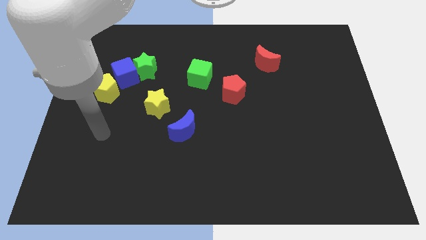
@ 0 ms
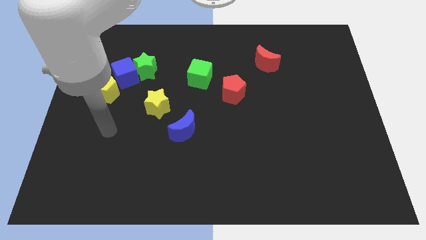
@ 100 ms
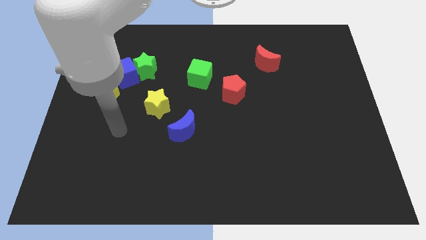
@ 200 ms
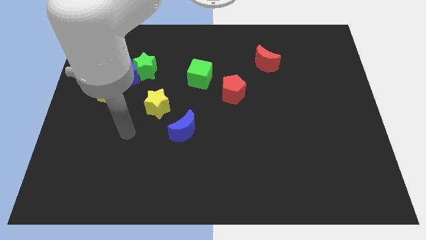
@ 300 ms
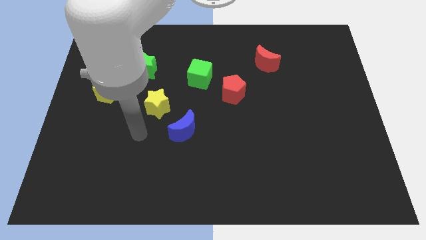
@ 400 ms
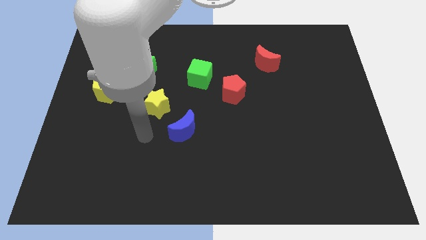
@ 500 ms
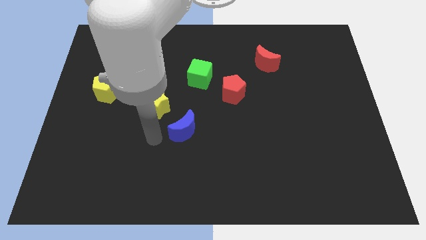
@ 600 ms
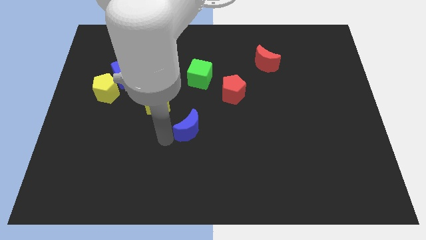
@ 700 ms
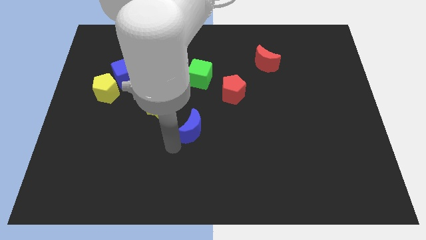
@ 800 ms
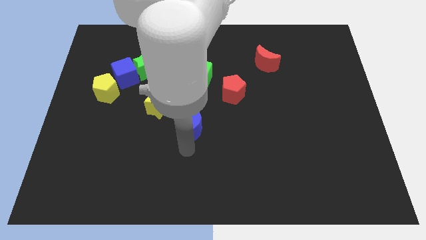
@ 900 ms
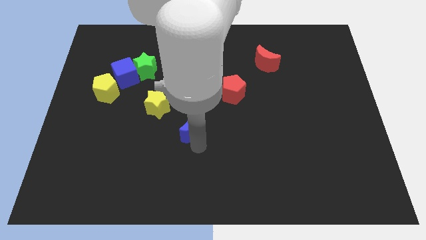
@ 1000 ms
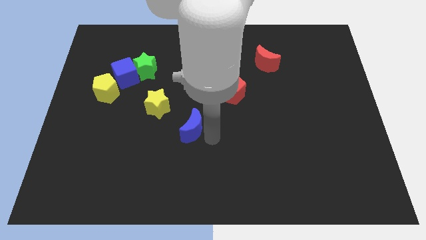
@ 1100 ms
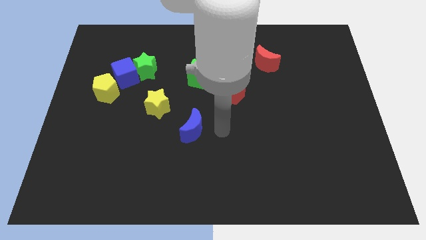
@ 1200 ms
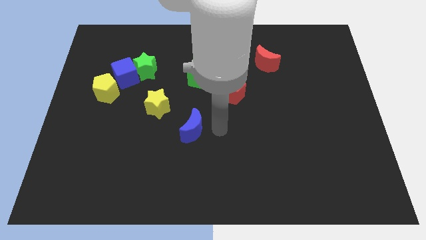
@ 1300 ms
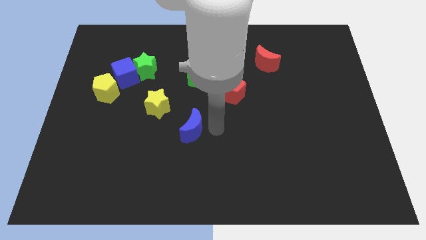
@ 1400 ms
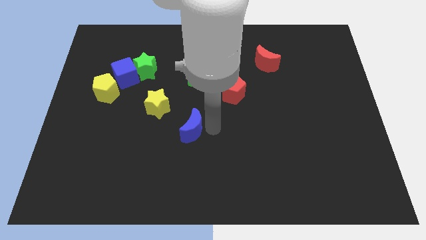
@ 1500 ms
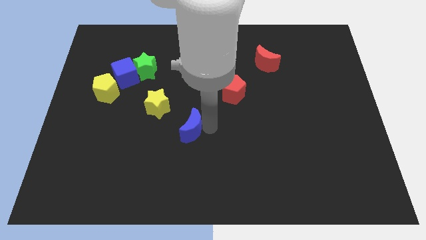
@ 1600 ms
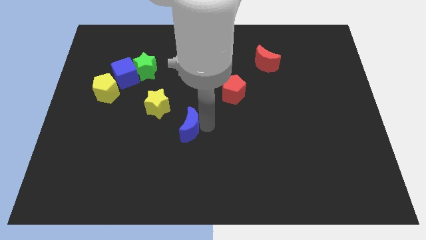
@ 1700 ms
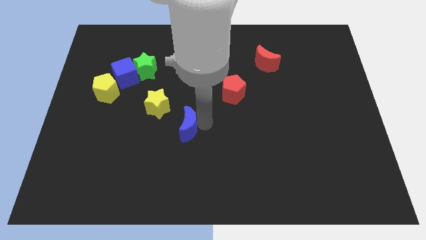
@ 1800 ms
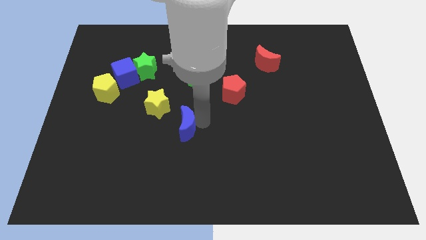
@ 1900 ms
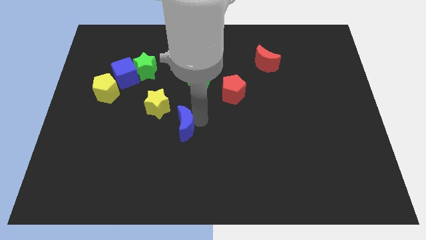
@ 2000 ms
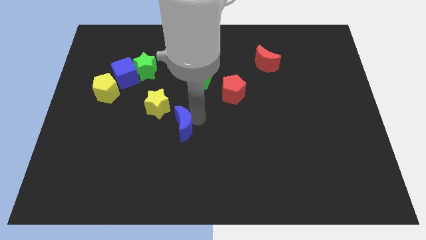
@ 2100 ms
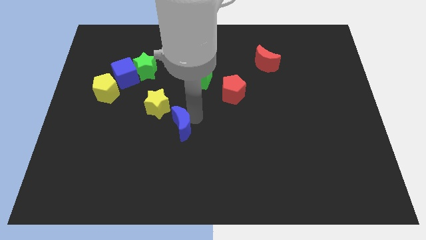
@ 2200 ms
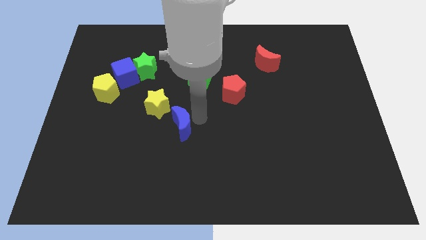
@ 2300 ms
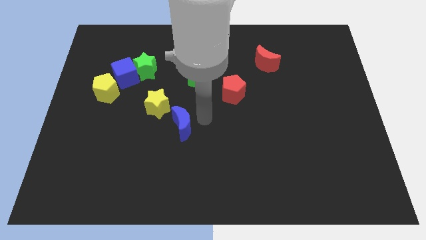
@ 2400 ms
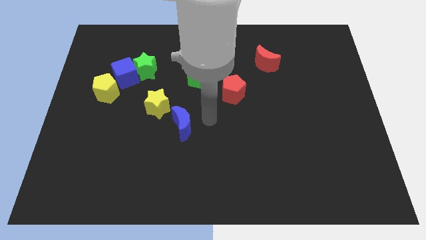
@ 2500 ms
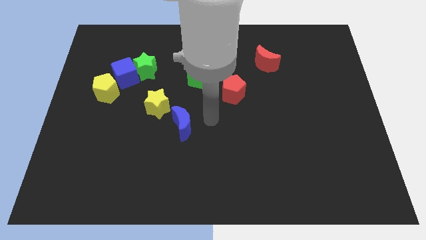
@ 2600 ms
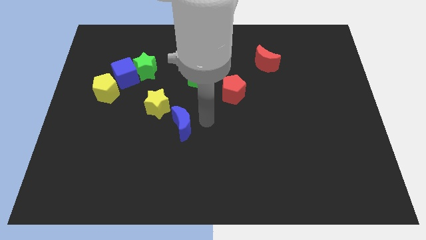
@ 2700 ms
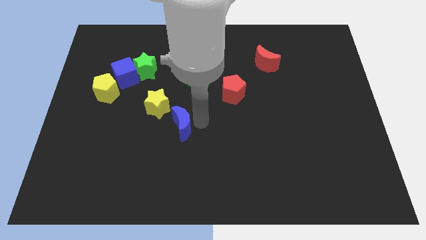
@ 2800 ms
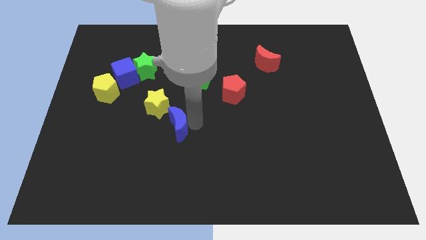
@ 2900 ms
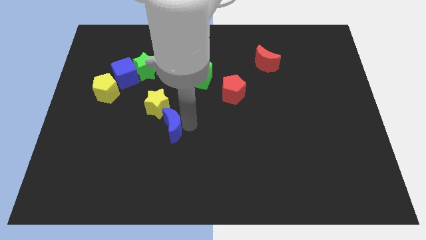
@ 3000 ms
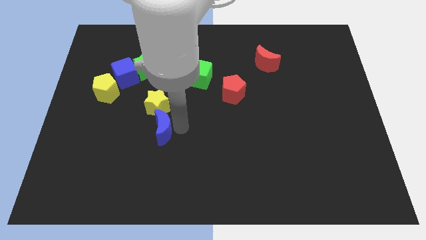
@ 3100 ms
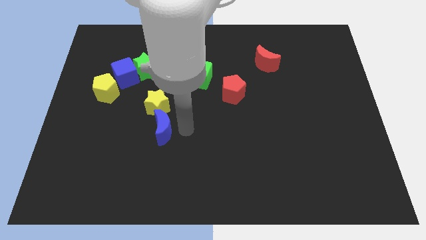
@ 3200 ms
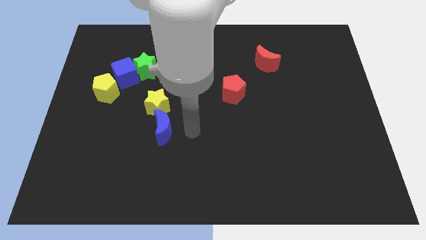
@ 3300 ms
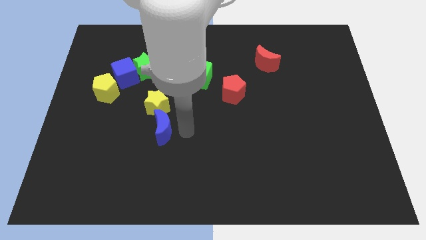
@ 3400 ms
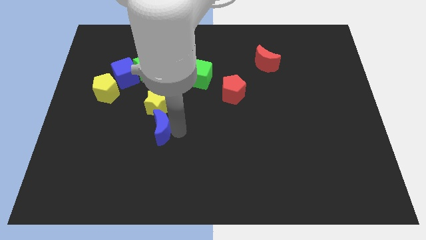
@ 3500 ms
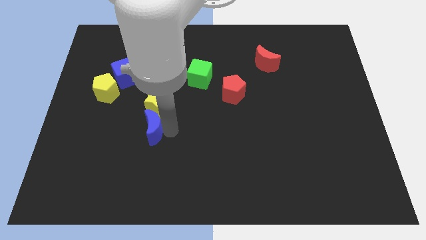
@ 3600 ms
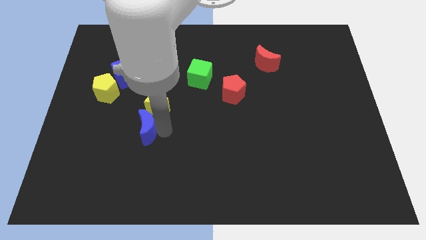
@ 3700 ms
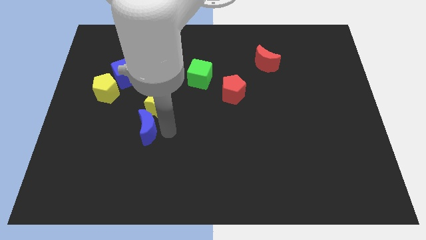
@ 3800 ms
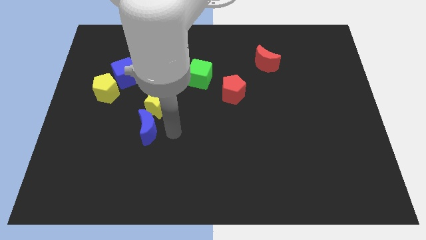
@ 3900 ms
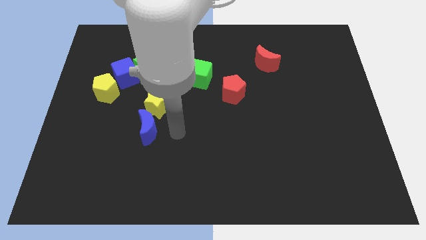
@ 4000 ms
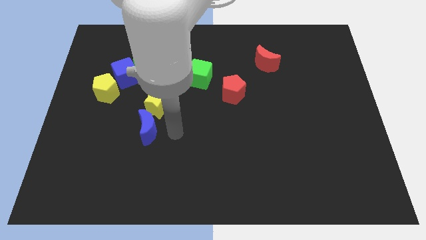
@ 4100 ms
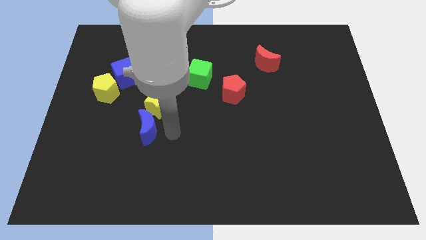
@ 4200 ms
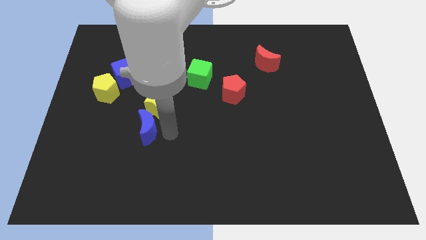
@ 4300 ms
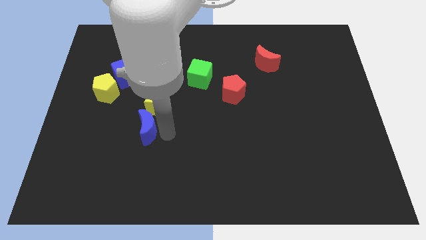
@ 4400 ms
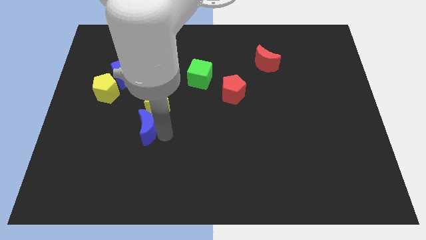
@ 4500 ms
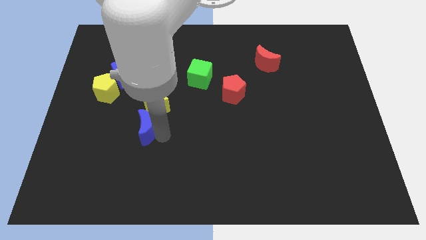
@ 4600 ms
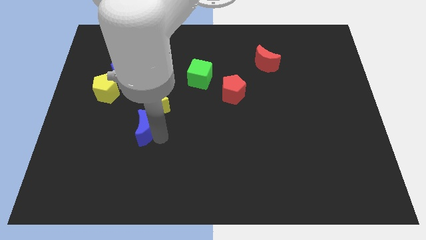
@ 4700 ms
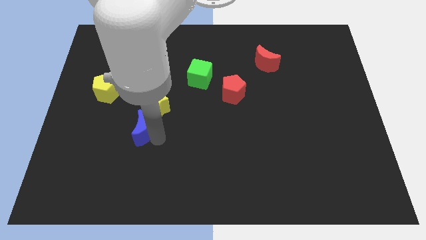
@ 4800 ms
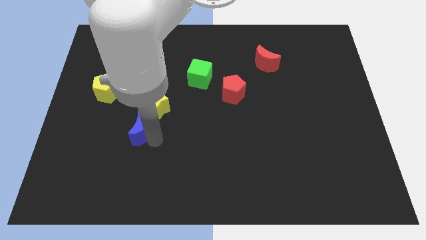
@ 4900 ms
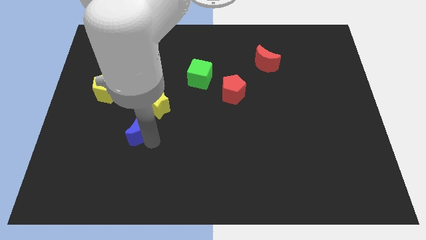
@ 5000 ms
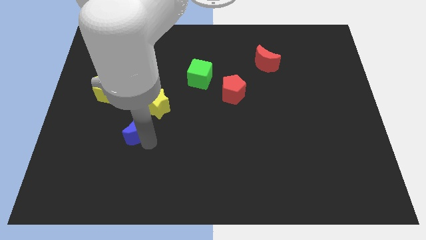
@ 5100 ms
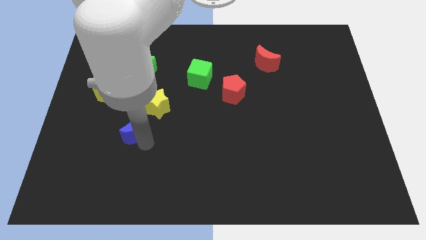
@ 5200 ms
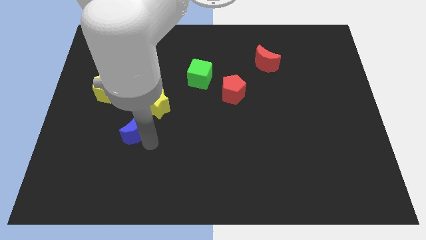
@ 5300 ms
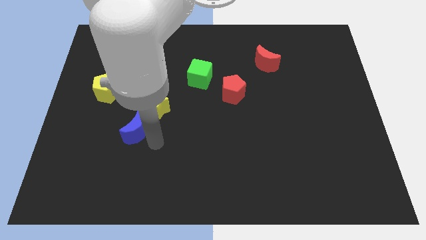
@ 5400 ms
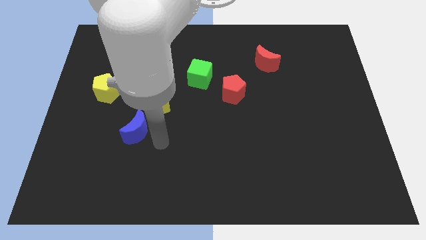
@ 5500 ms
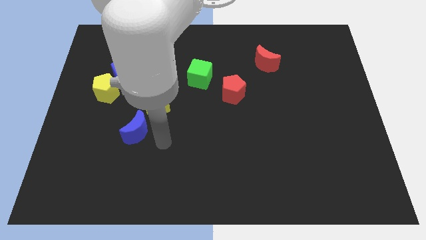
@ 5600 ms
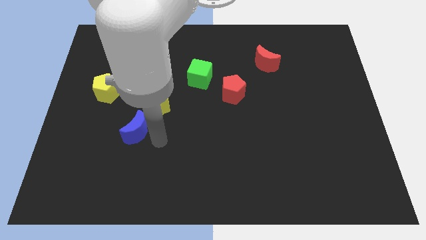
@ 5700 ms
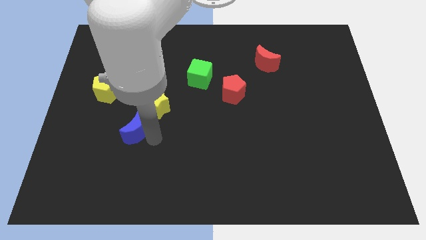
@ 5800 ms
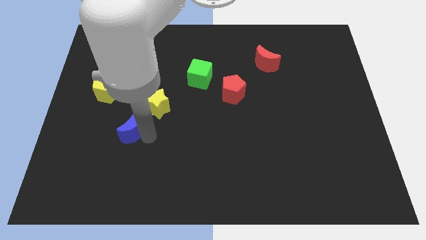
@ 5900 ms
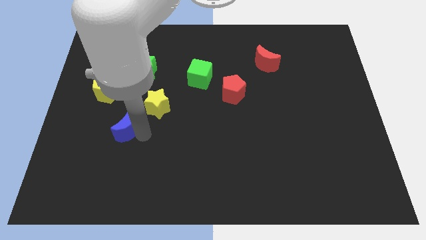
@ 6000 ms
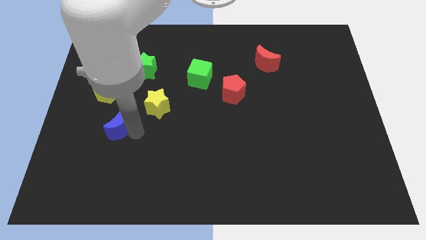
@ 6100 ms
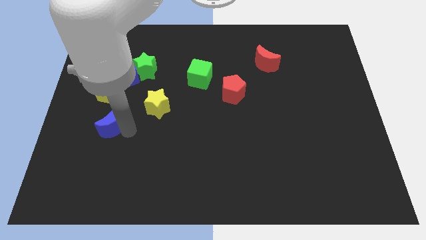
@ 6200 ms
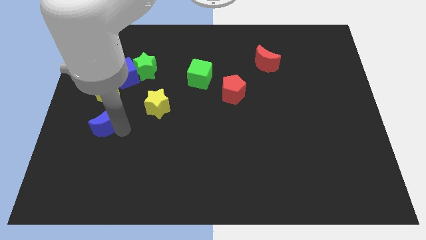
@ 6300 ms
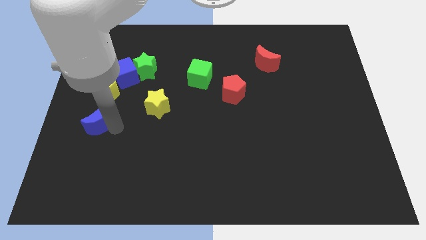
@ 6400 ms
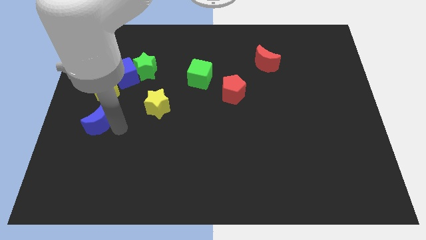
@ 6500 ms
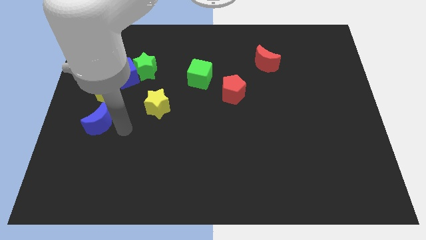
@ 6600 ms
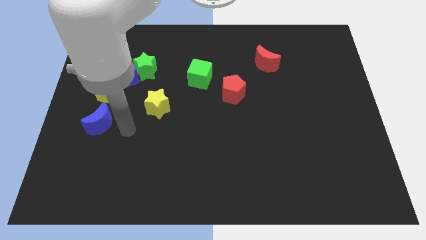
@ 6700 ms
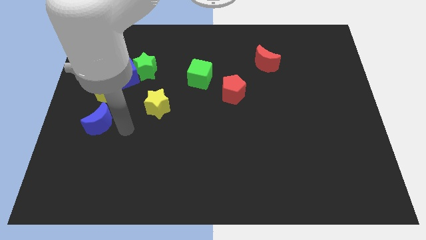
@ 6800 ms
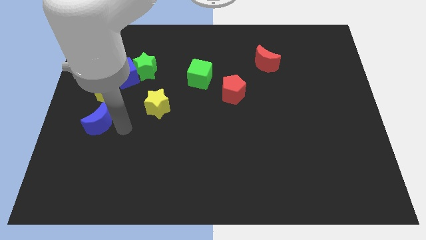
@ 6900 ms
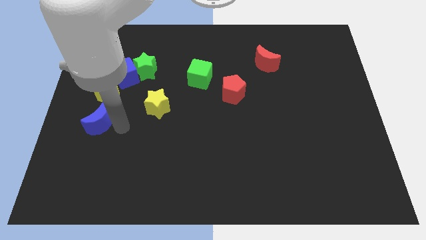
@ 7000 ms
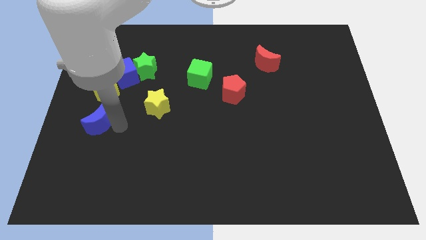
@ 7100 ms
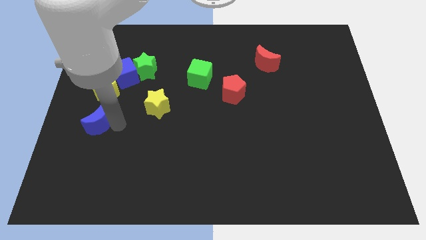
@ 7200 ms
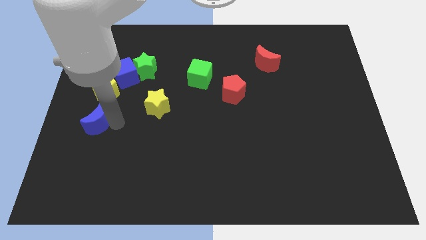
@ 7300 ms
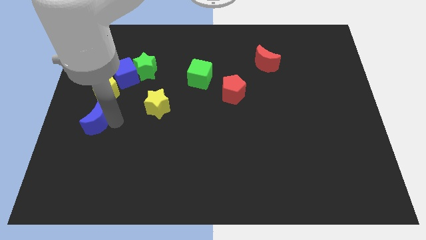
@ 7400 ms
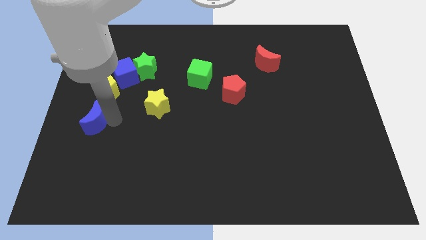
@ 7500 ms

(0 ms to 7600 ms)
slide the blue moon to the left side
